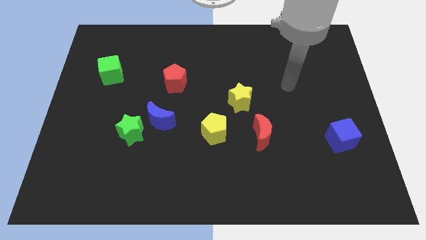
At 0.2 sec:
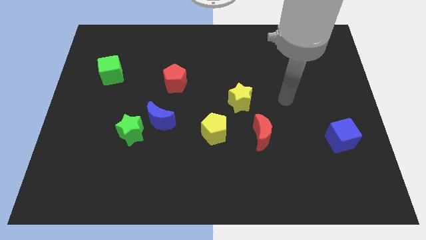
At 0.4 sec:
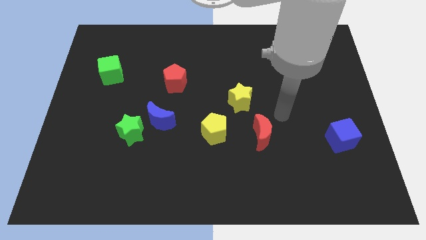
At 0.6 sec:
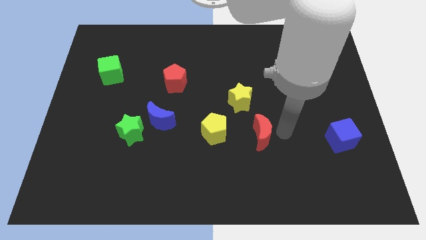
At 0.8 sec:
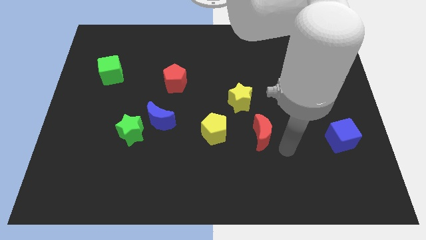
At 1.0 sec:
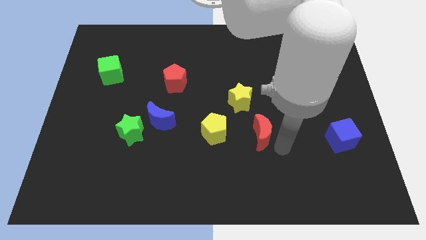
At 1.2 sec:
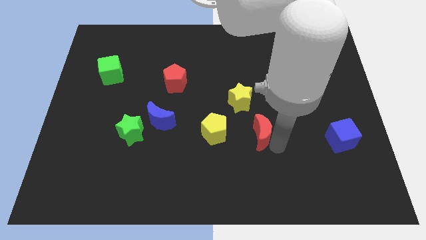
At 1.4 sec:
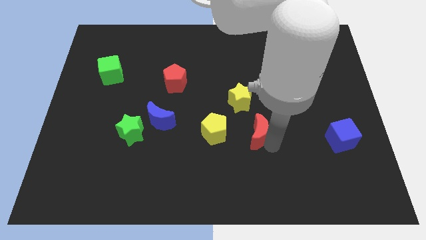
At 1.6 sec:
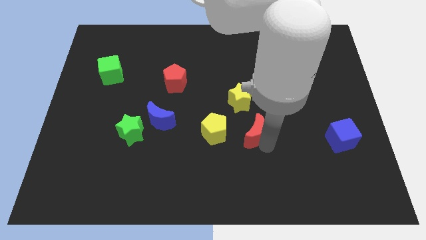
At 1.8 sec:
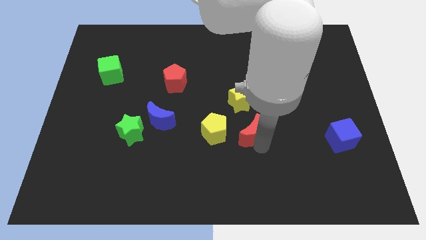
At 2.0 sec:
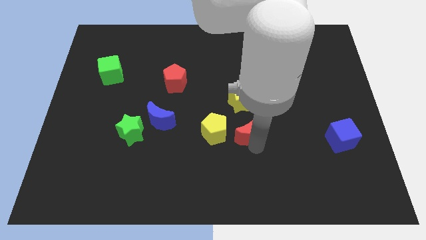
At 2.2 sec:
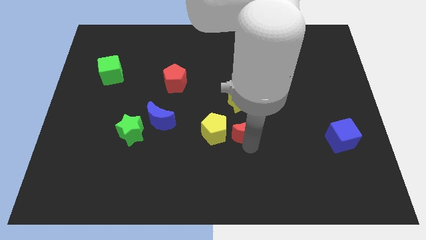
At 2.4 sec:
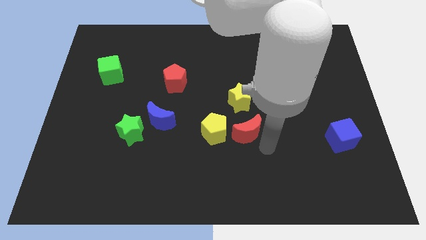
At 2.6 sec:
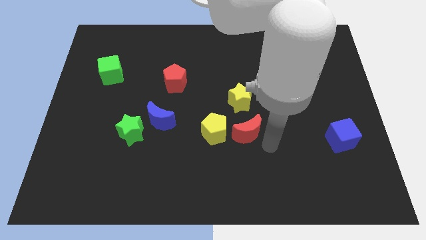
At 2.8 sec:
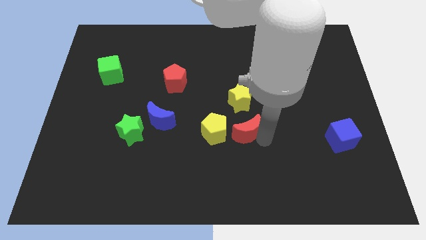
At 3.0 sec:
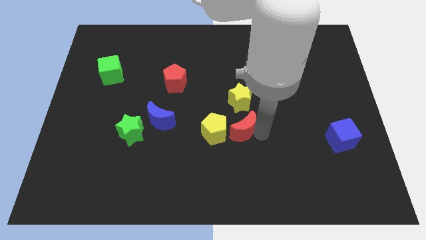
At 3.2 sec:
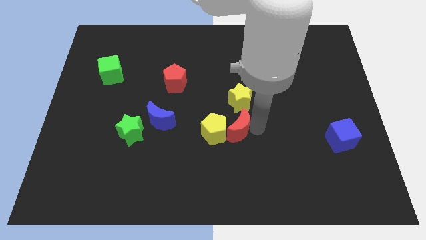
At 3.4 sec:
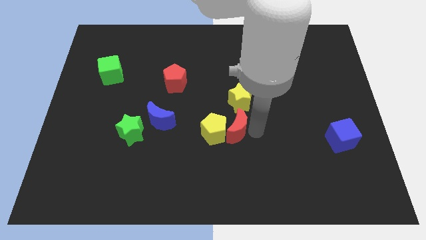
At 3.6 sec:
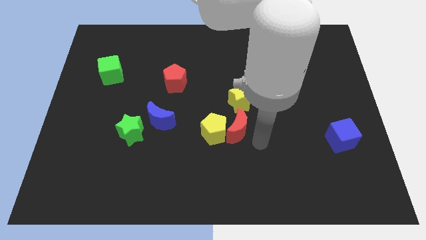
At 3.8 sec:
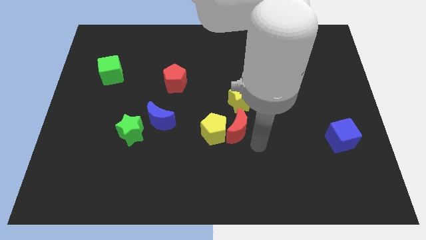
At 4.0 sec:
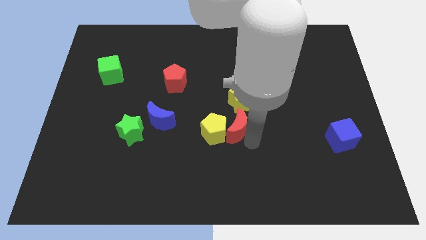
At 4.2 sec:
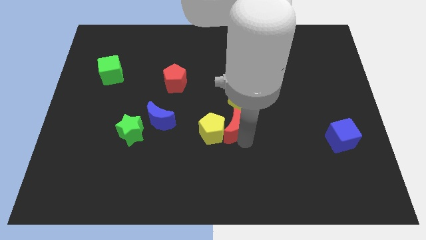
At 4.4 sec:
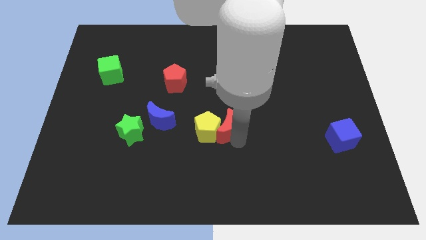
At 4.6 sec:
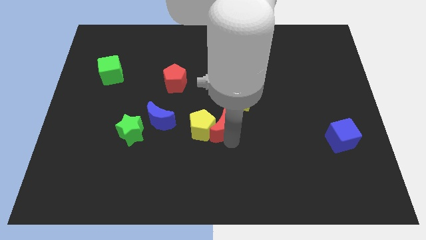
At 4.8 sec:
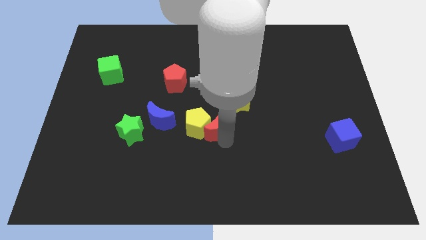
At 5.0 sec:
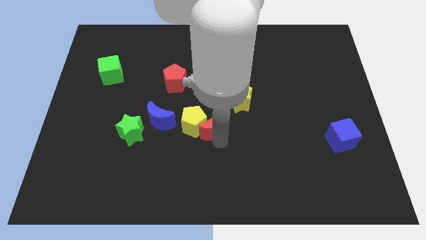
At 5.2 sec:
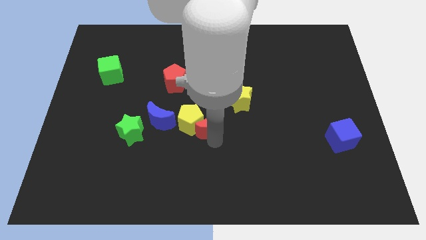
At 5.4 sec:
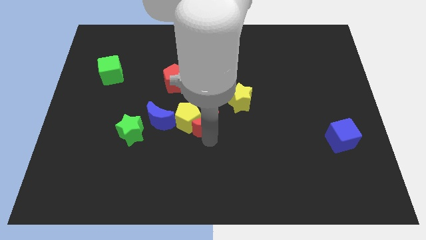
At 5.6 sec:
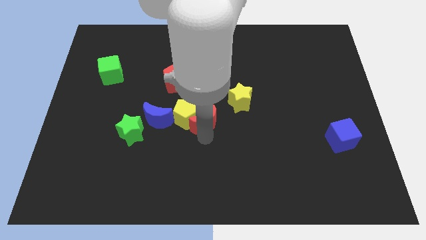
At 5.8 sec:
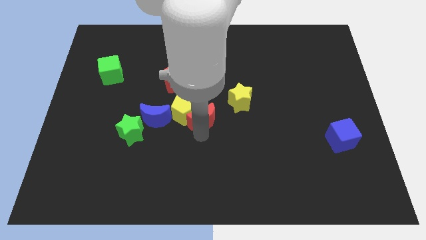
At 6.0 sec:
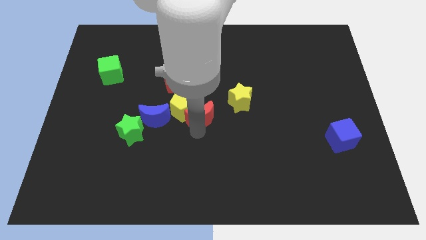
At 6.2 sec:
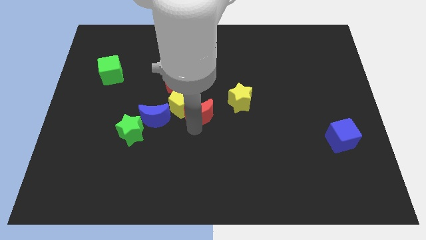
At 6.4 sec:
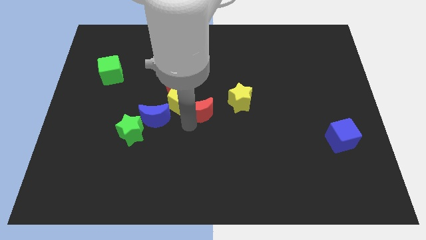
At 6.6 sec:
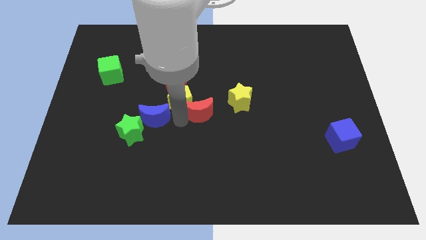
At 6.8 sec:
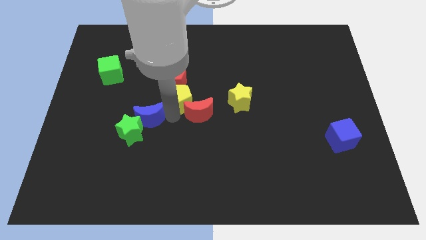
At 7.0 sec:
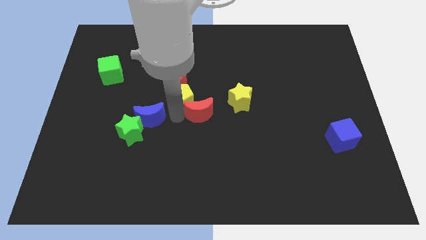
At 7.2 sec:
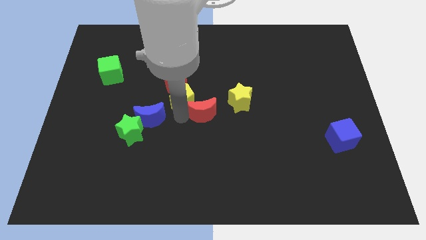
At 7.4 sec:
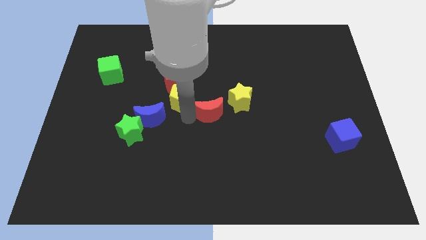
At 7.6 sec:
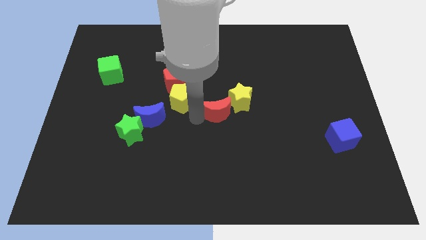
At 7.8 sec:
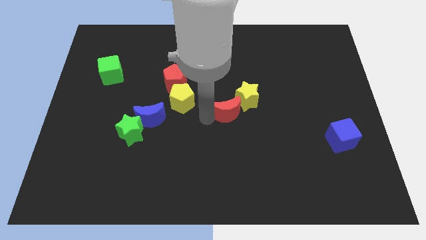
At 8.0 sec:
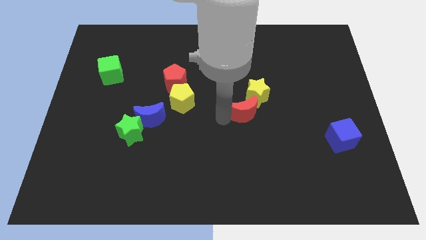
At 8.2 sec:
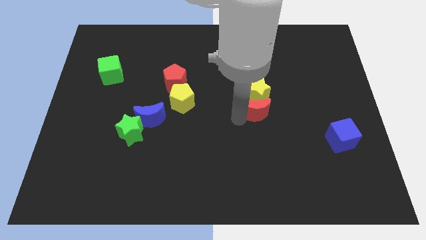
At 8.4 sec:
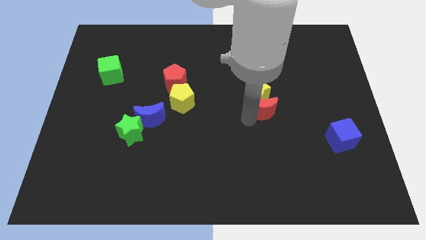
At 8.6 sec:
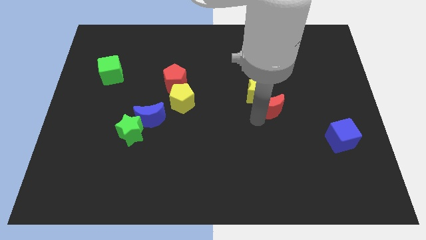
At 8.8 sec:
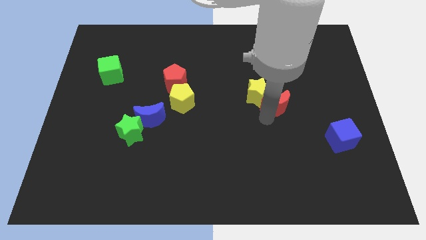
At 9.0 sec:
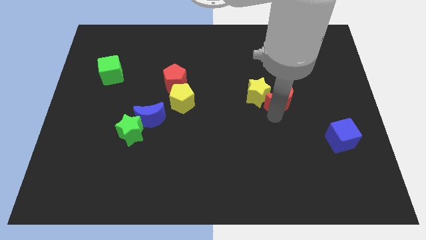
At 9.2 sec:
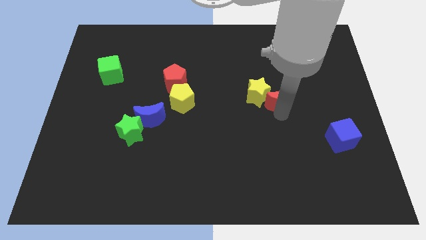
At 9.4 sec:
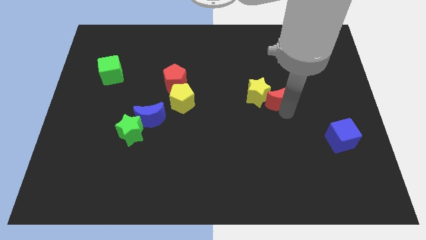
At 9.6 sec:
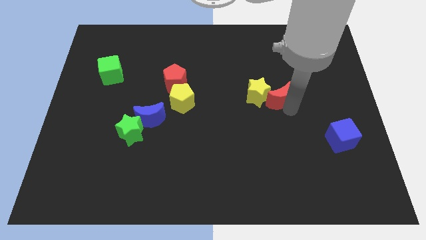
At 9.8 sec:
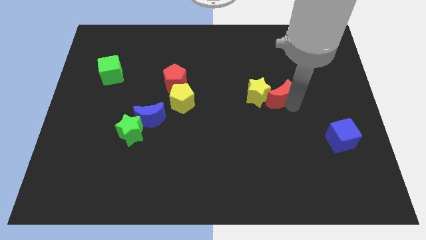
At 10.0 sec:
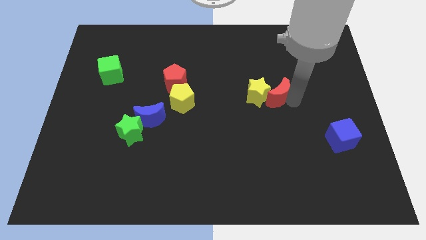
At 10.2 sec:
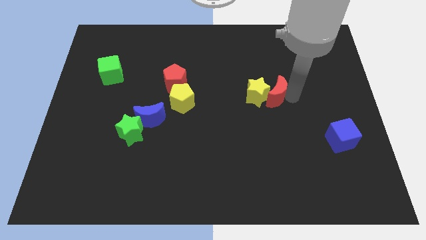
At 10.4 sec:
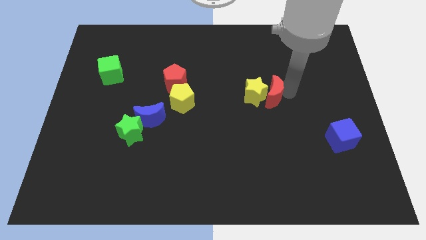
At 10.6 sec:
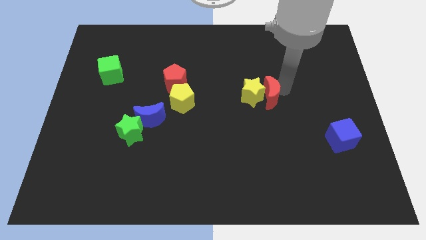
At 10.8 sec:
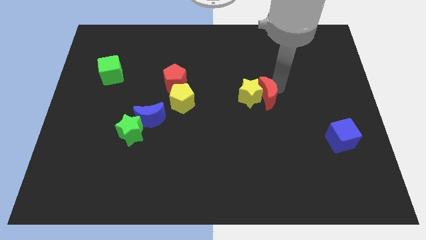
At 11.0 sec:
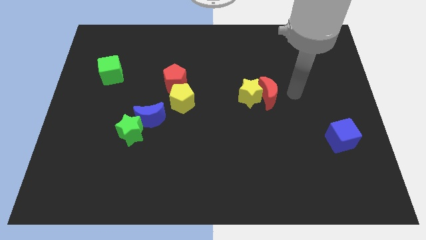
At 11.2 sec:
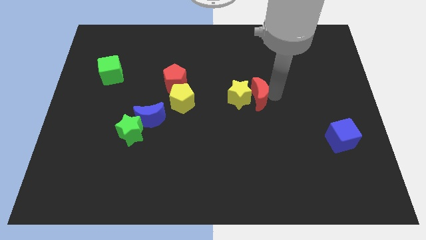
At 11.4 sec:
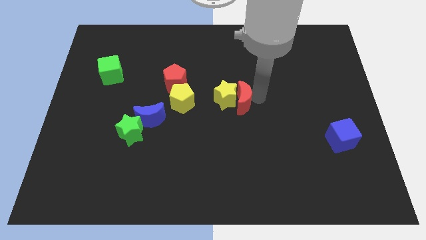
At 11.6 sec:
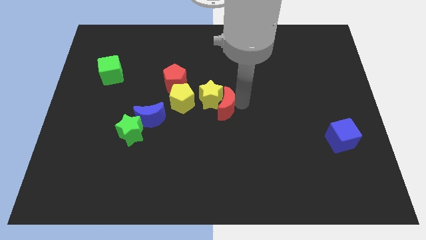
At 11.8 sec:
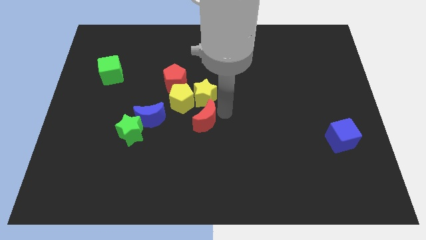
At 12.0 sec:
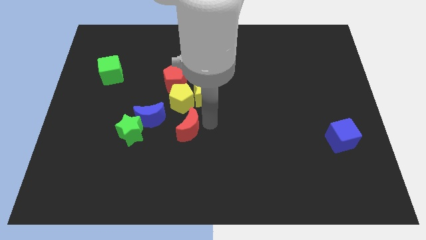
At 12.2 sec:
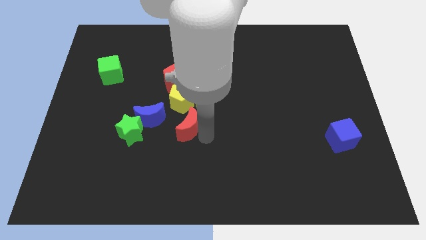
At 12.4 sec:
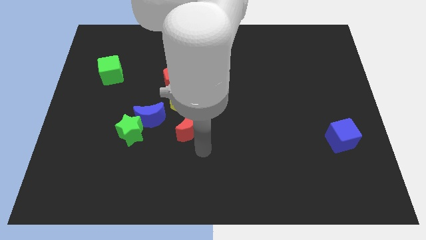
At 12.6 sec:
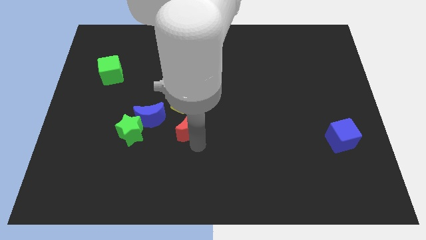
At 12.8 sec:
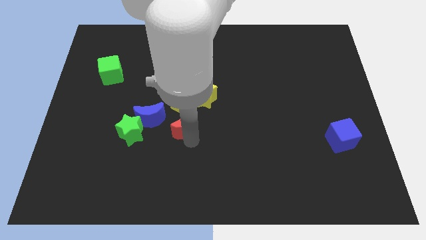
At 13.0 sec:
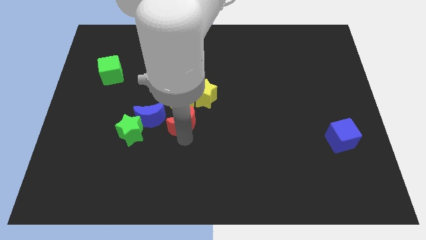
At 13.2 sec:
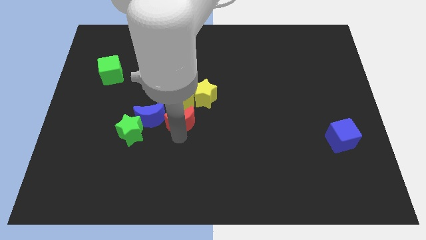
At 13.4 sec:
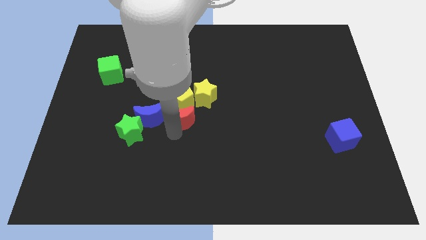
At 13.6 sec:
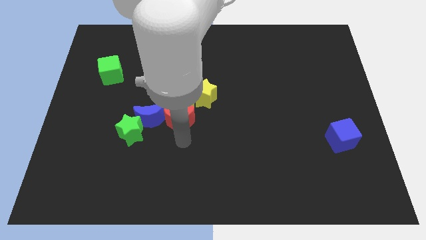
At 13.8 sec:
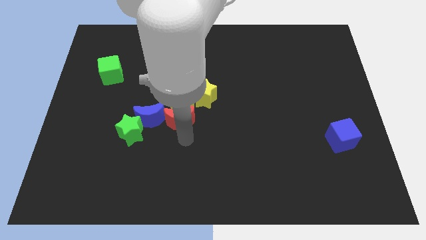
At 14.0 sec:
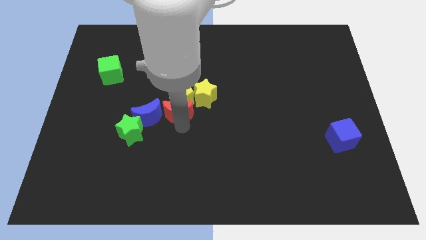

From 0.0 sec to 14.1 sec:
push the red moon to the top right of the blue moon
